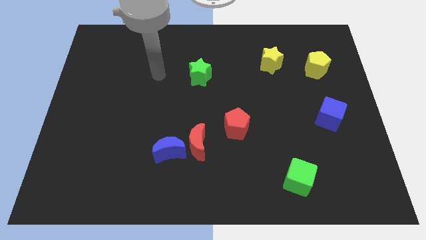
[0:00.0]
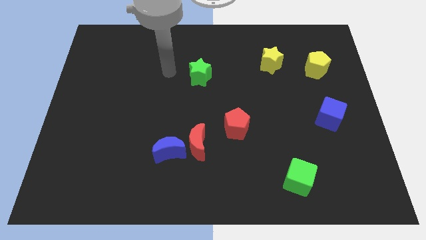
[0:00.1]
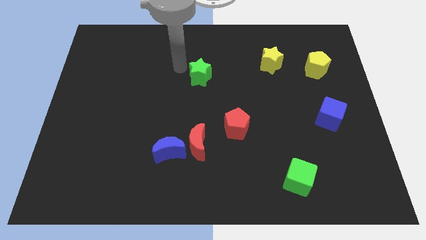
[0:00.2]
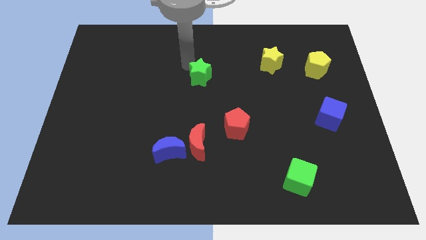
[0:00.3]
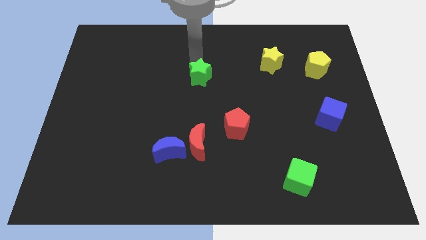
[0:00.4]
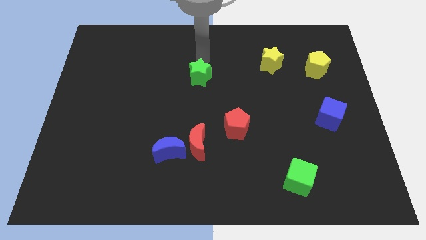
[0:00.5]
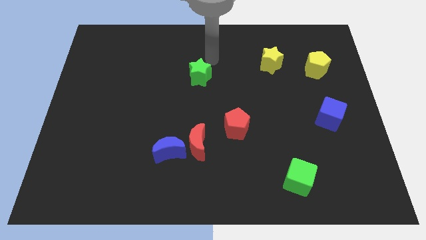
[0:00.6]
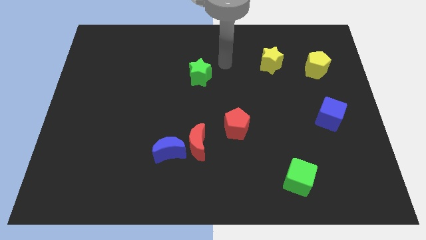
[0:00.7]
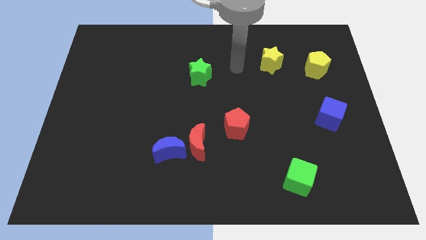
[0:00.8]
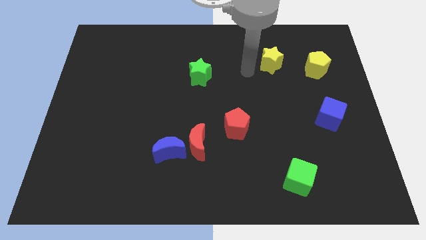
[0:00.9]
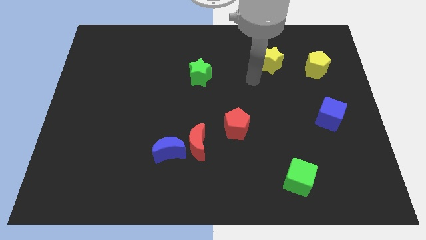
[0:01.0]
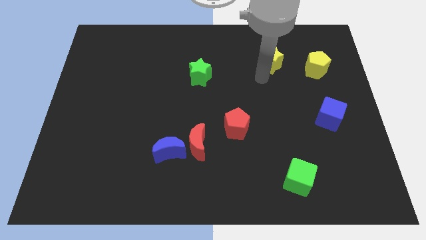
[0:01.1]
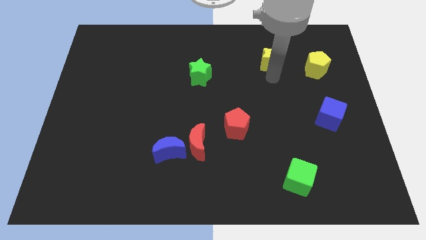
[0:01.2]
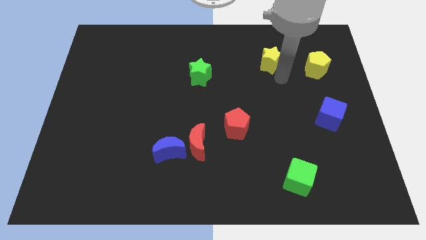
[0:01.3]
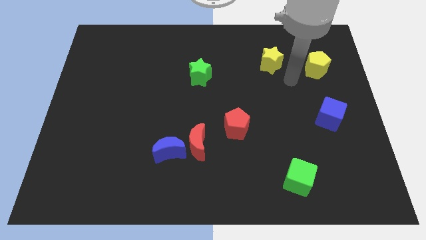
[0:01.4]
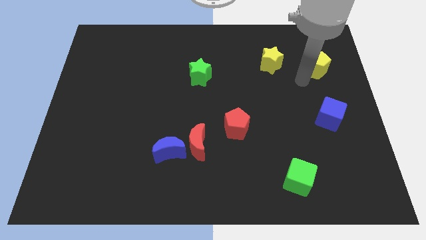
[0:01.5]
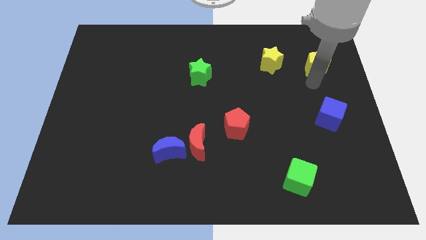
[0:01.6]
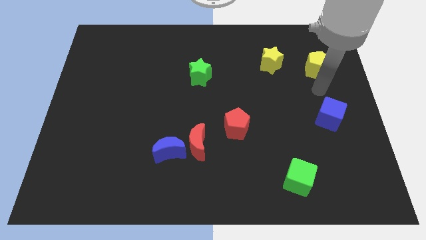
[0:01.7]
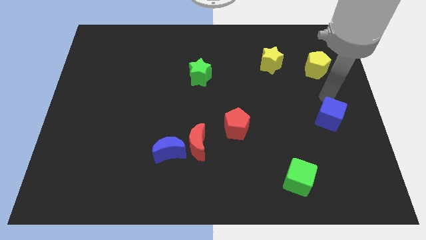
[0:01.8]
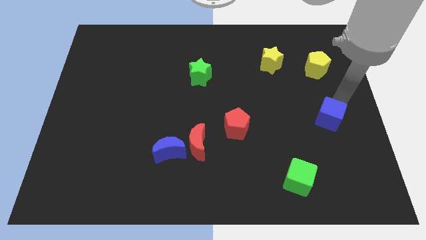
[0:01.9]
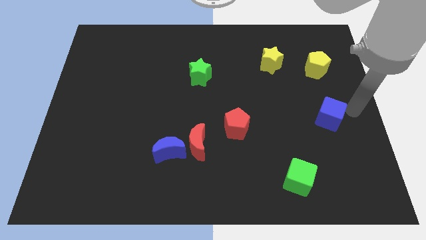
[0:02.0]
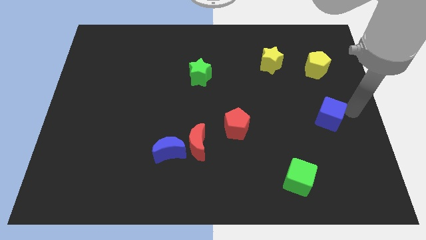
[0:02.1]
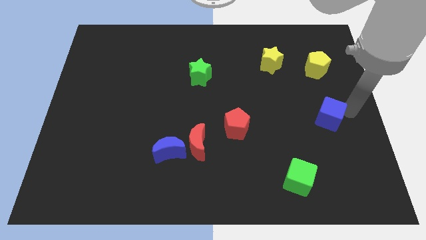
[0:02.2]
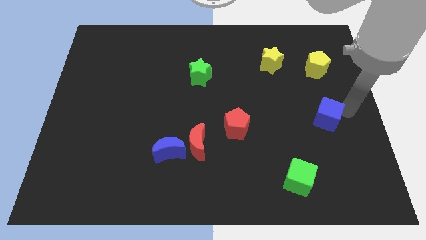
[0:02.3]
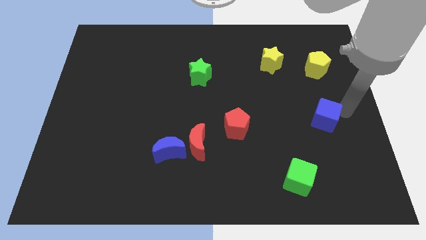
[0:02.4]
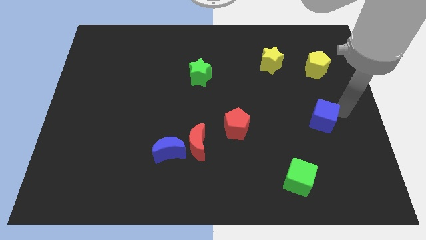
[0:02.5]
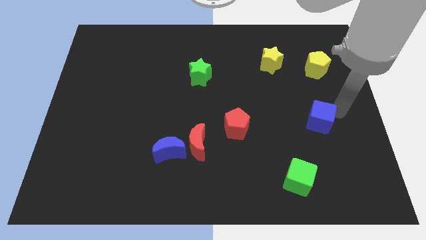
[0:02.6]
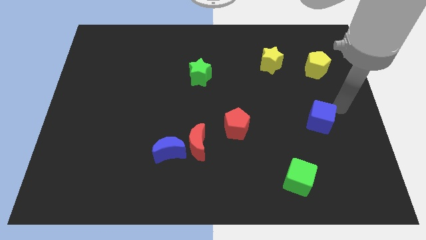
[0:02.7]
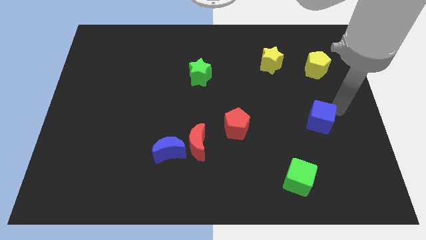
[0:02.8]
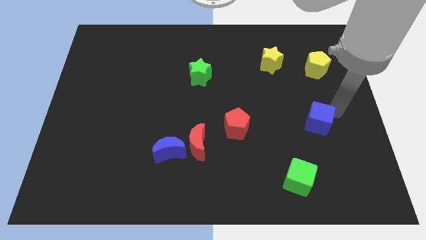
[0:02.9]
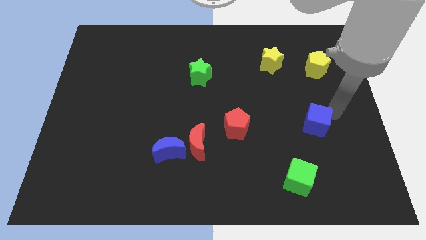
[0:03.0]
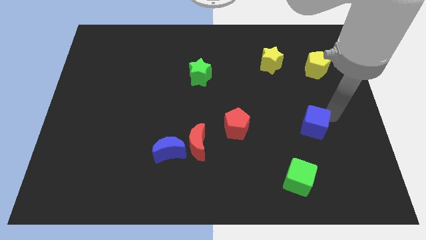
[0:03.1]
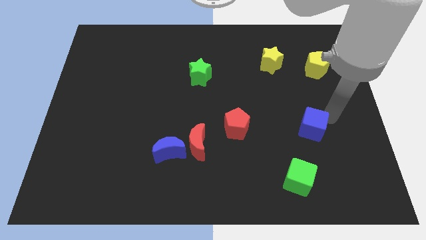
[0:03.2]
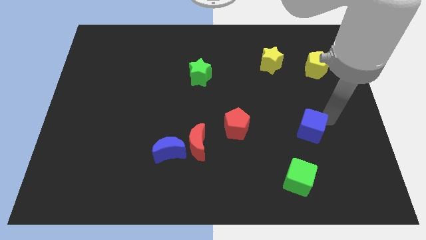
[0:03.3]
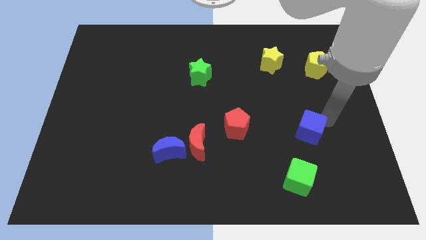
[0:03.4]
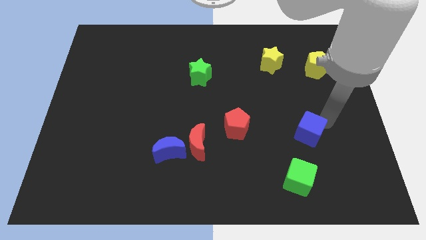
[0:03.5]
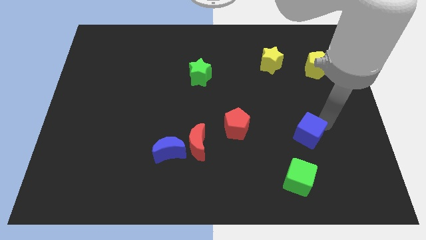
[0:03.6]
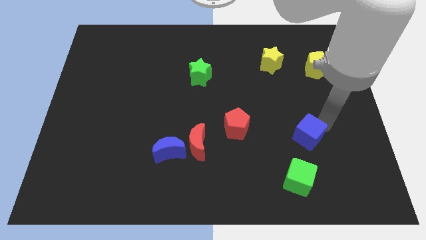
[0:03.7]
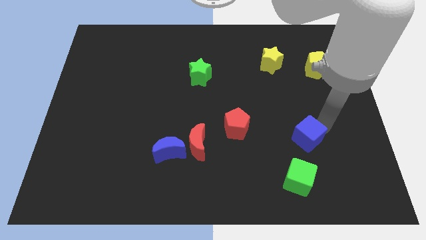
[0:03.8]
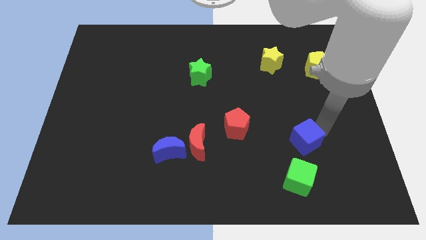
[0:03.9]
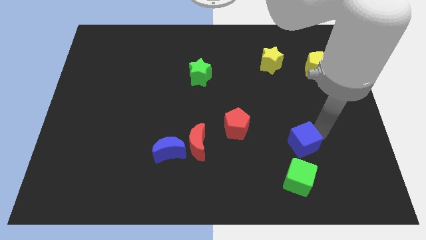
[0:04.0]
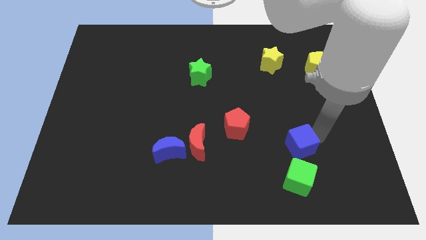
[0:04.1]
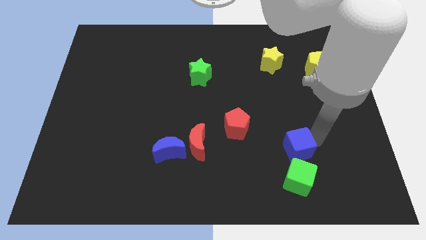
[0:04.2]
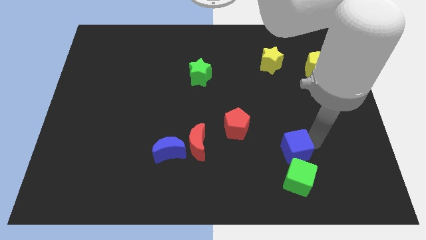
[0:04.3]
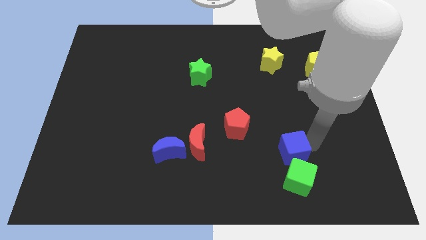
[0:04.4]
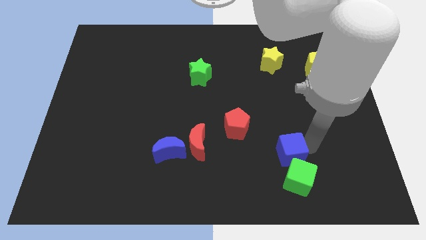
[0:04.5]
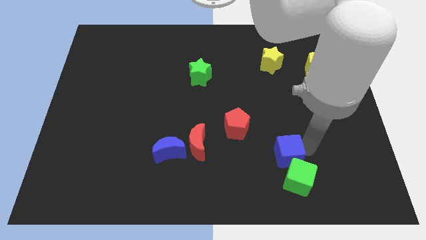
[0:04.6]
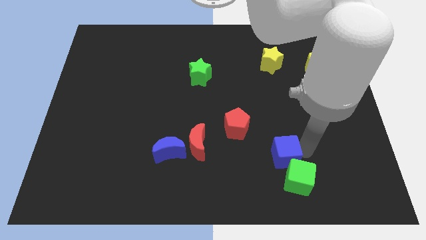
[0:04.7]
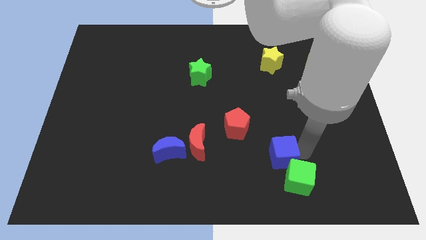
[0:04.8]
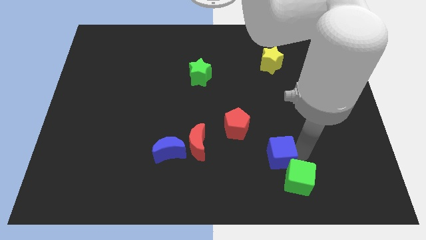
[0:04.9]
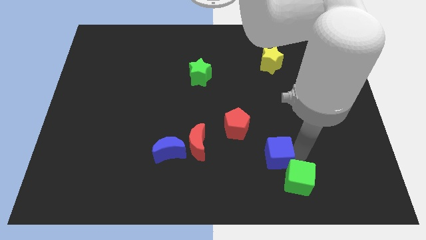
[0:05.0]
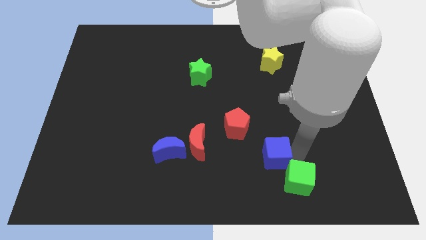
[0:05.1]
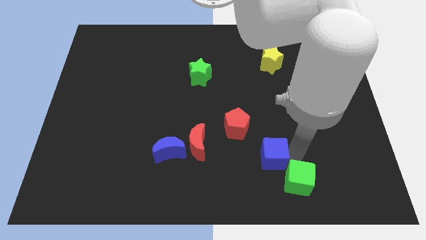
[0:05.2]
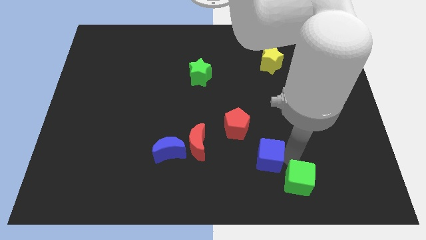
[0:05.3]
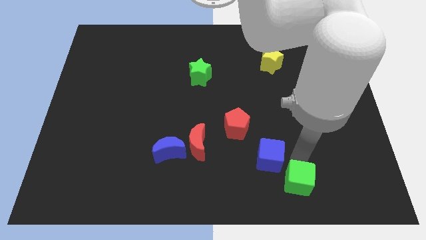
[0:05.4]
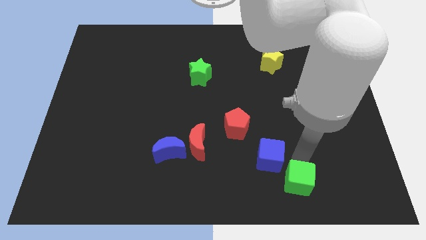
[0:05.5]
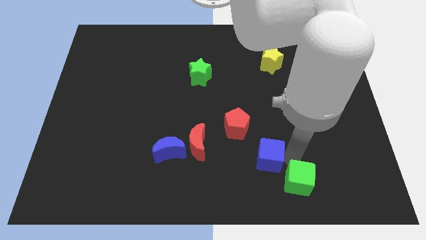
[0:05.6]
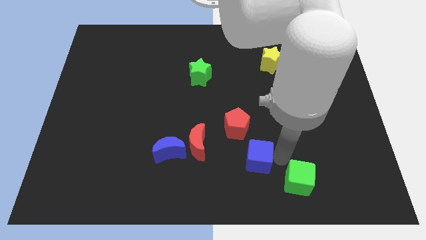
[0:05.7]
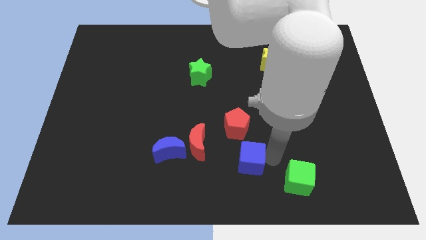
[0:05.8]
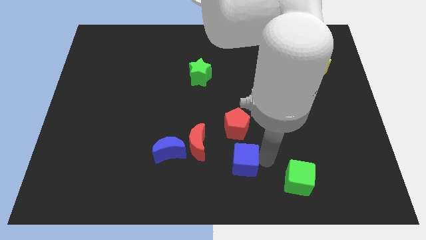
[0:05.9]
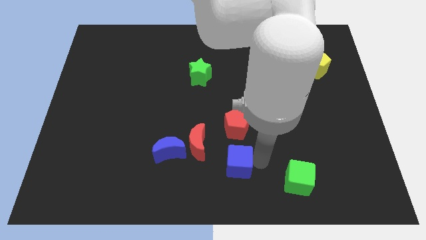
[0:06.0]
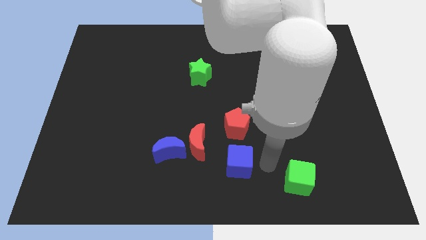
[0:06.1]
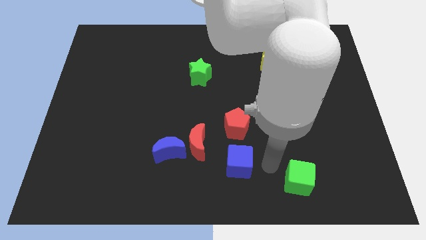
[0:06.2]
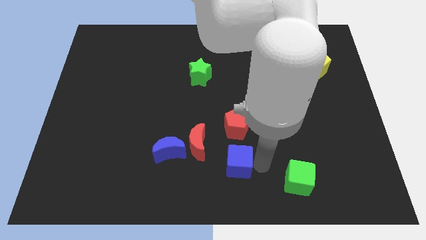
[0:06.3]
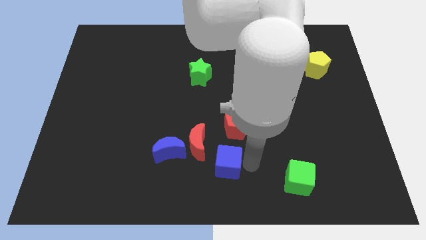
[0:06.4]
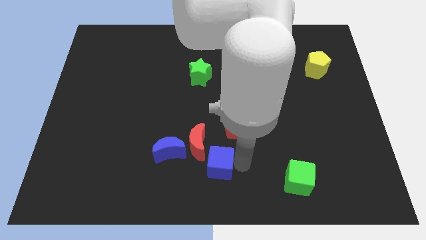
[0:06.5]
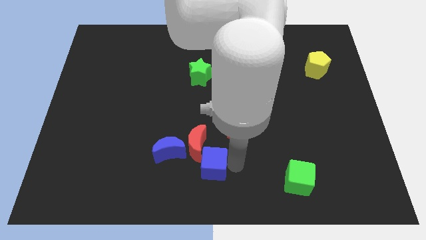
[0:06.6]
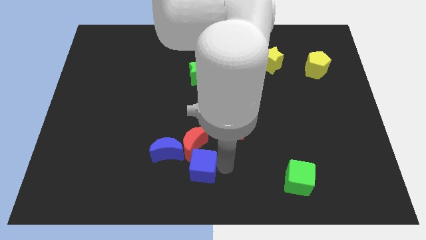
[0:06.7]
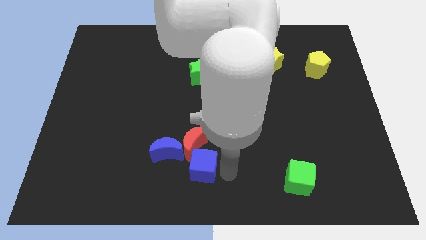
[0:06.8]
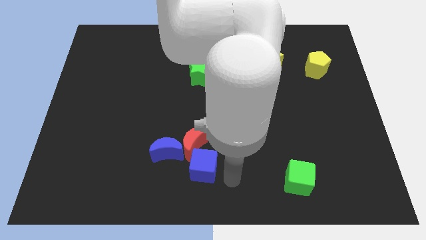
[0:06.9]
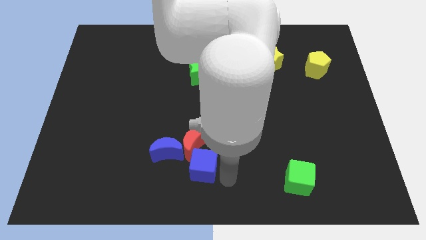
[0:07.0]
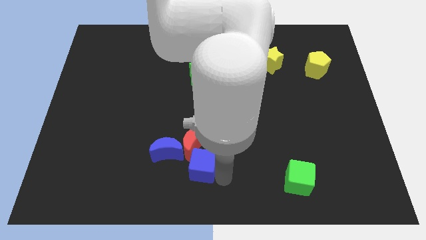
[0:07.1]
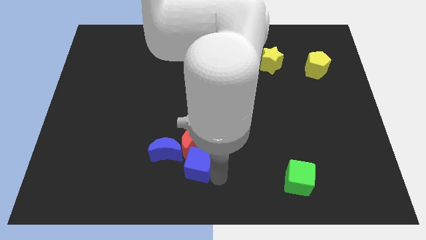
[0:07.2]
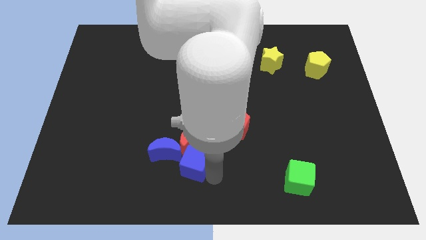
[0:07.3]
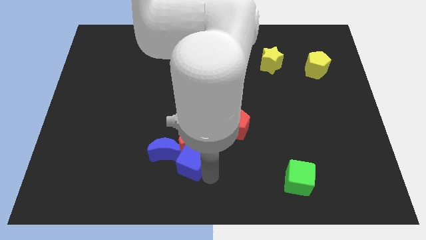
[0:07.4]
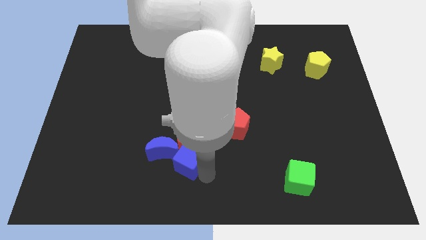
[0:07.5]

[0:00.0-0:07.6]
move the blue cube towards the blue moon
